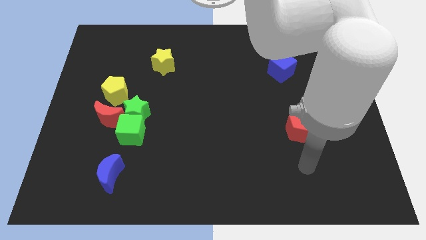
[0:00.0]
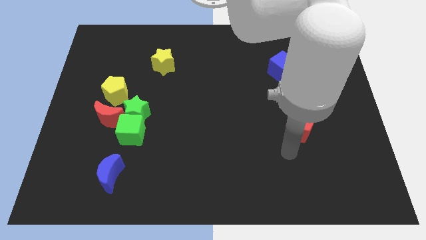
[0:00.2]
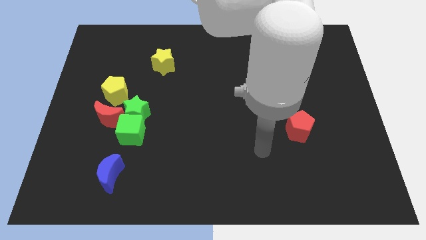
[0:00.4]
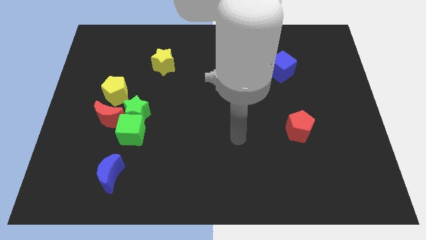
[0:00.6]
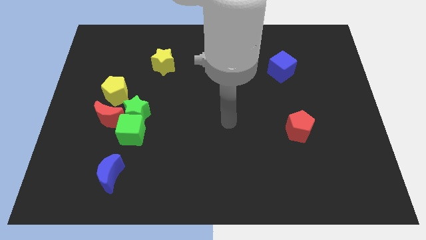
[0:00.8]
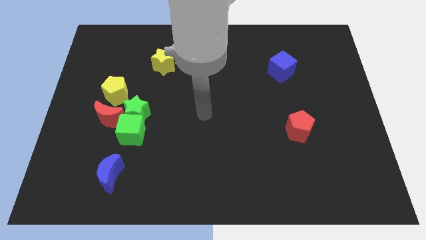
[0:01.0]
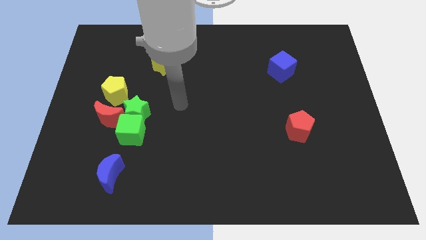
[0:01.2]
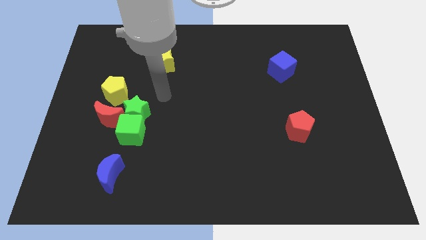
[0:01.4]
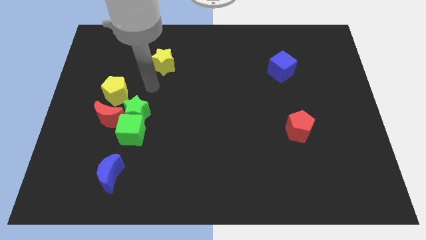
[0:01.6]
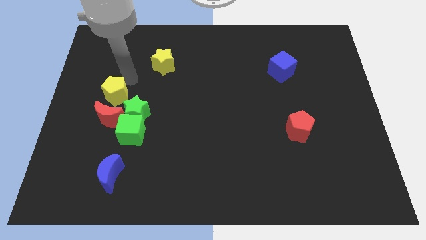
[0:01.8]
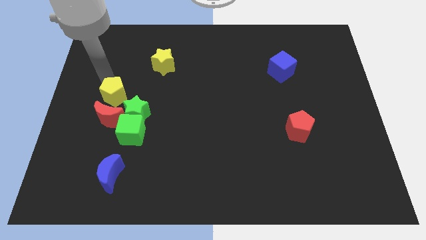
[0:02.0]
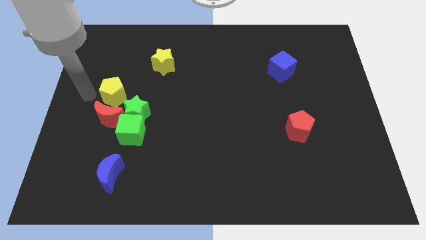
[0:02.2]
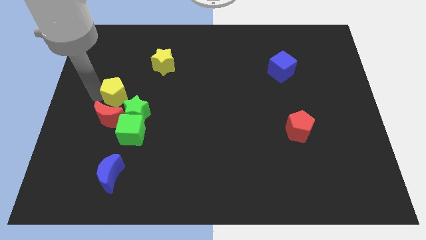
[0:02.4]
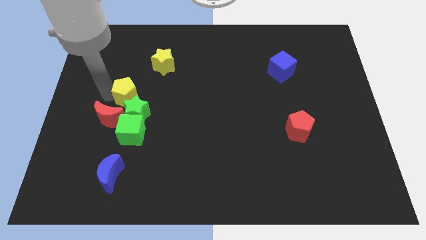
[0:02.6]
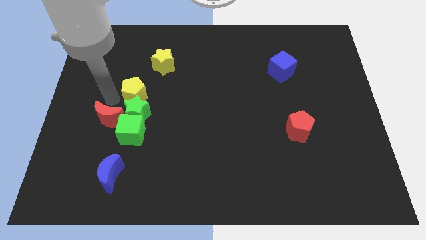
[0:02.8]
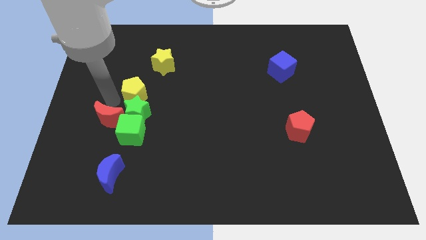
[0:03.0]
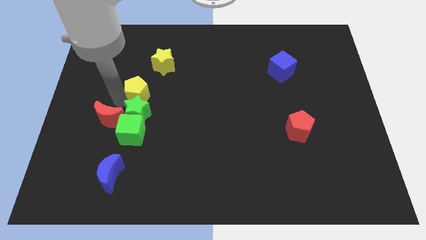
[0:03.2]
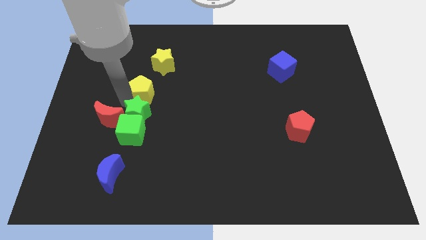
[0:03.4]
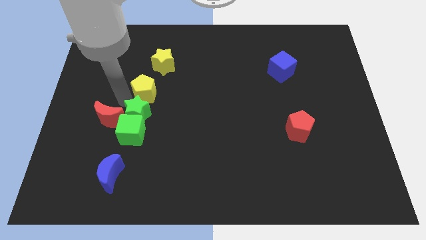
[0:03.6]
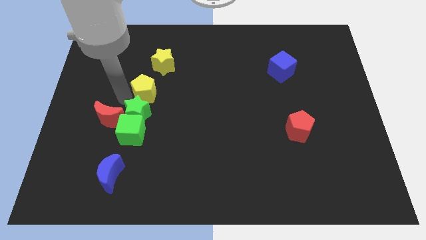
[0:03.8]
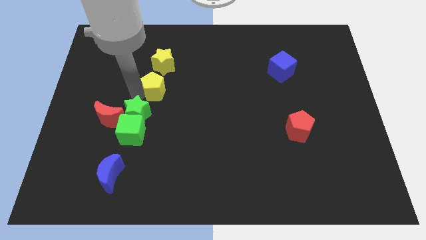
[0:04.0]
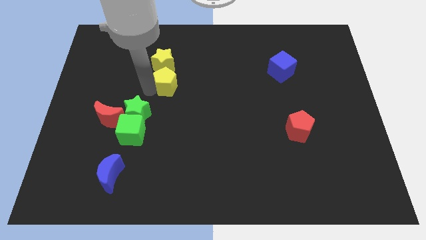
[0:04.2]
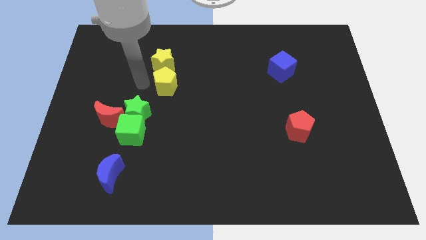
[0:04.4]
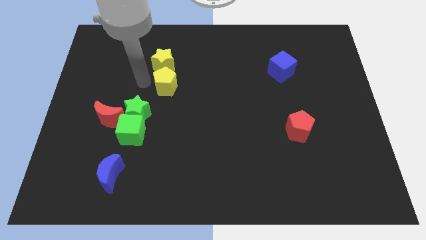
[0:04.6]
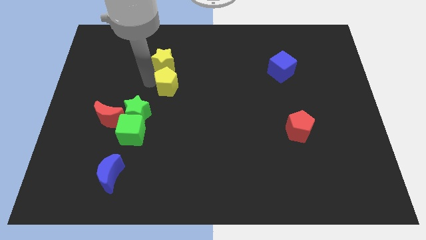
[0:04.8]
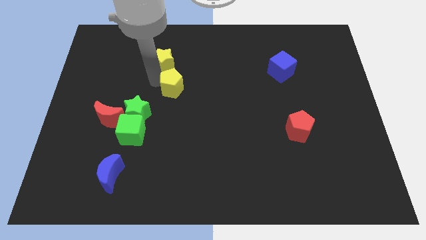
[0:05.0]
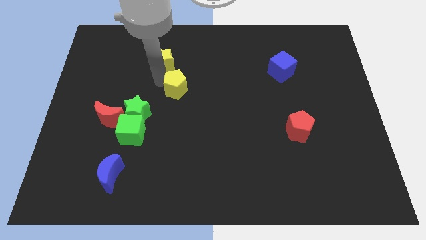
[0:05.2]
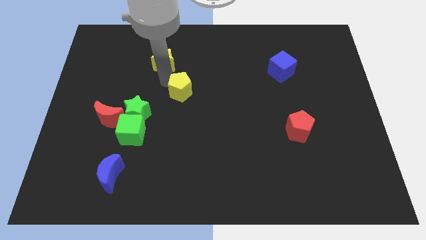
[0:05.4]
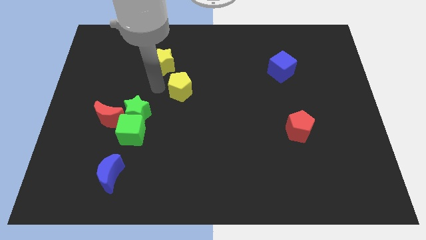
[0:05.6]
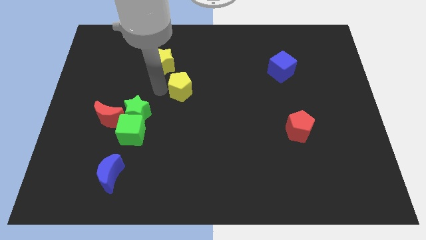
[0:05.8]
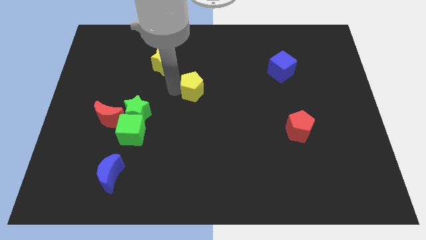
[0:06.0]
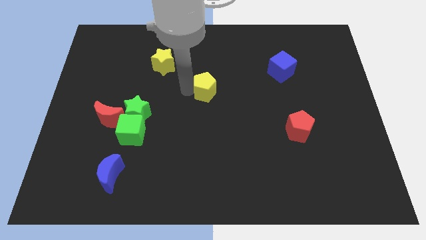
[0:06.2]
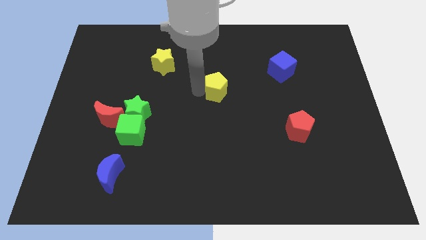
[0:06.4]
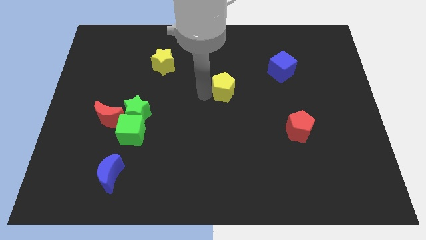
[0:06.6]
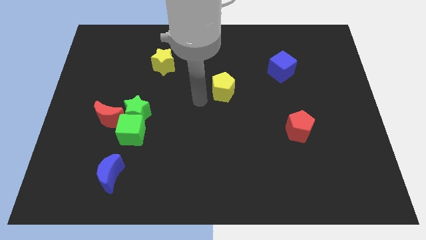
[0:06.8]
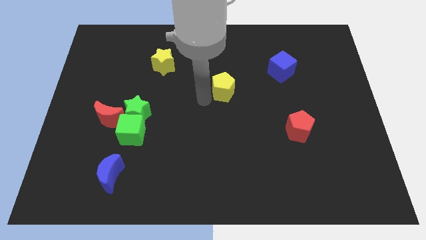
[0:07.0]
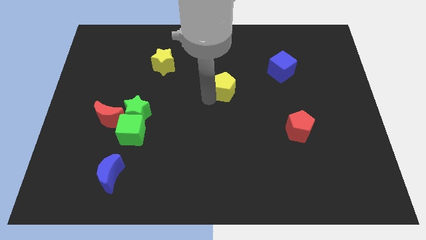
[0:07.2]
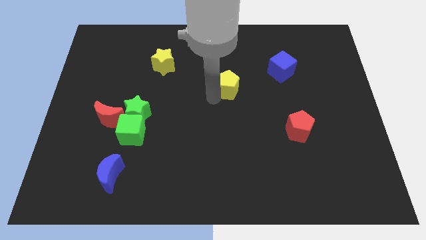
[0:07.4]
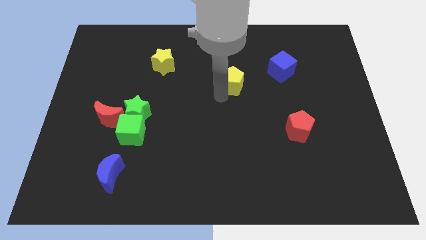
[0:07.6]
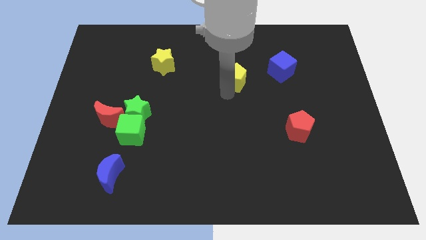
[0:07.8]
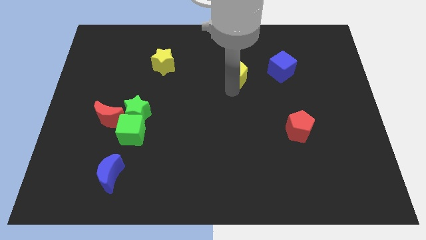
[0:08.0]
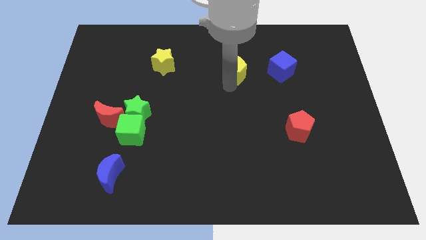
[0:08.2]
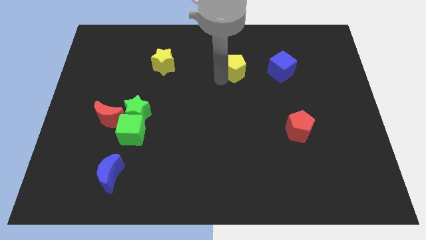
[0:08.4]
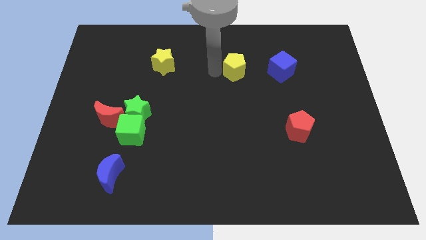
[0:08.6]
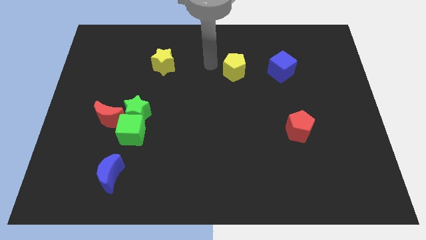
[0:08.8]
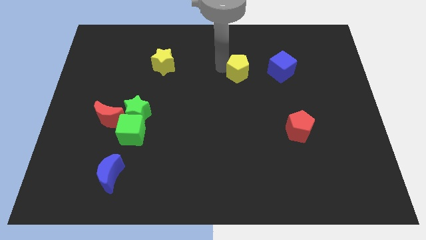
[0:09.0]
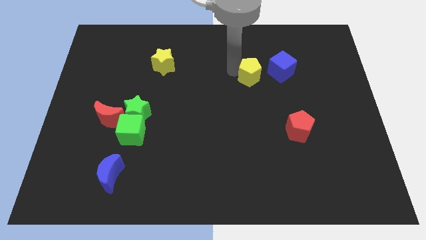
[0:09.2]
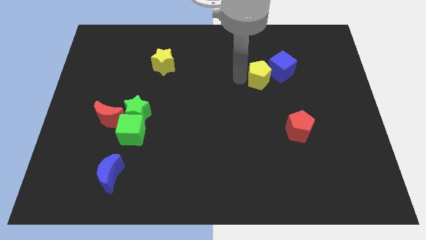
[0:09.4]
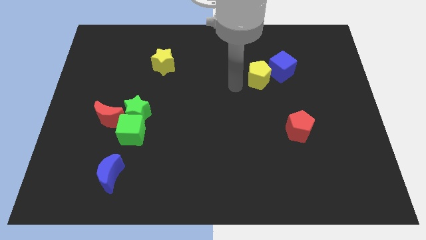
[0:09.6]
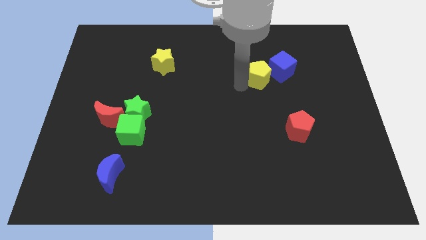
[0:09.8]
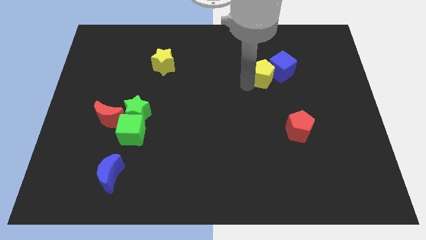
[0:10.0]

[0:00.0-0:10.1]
move the yellow pentagon next to the blue cube

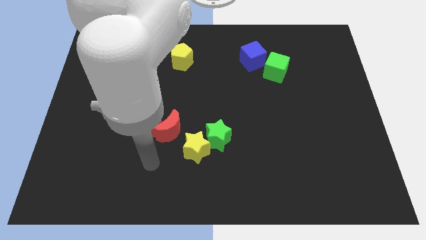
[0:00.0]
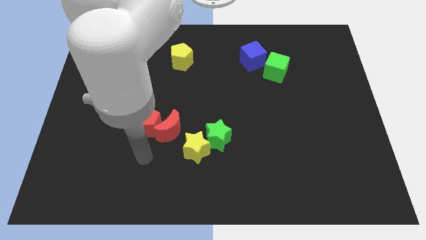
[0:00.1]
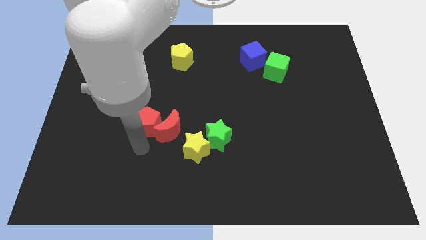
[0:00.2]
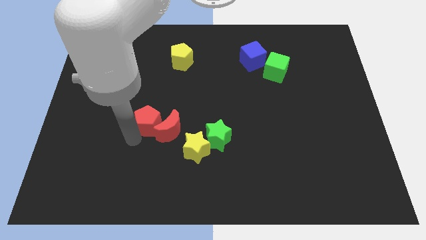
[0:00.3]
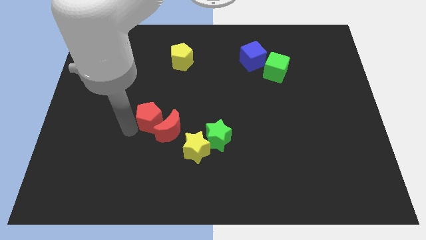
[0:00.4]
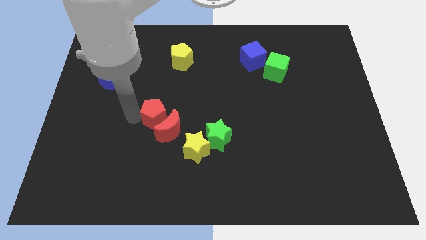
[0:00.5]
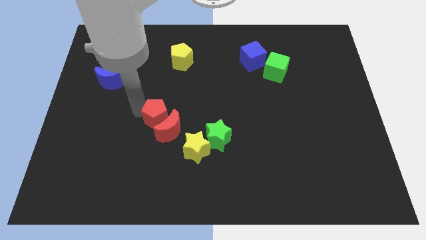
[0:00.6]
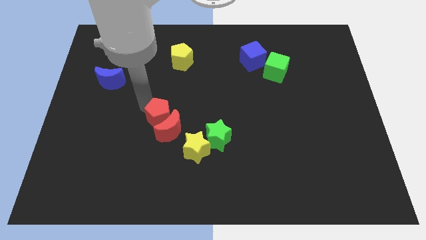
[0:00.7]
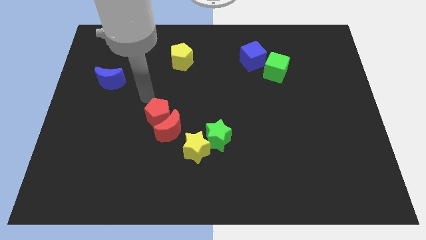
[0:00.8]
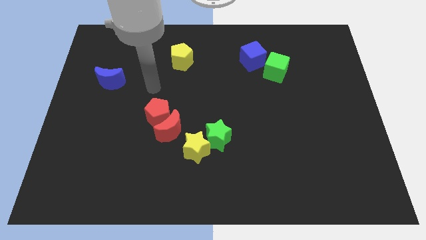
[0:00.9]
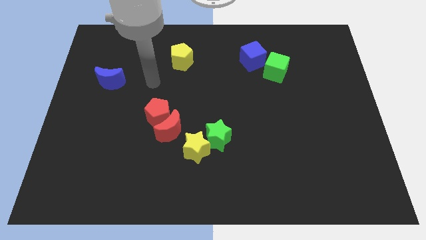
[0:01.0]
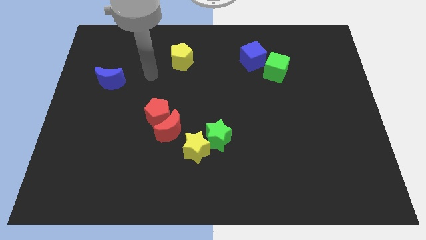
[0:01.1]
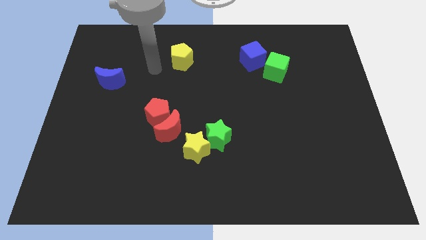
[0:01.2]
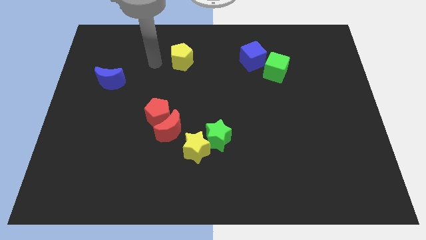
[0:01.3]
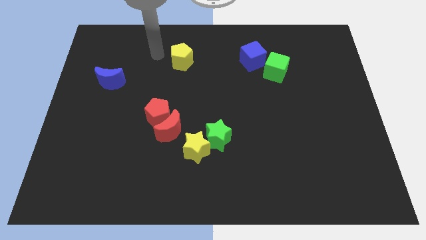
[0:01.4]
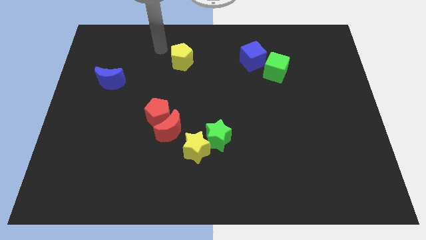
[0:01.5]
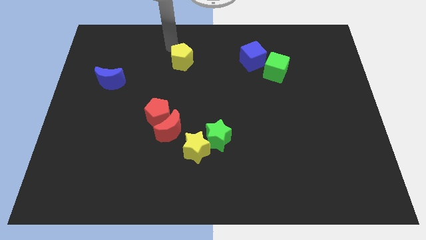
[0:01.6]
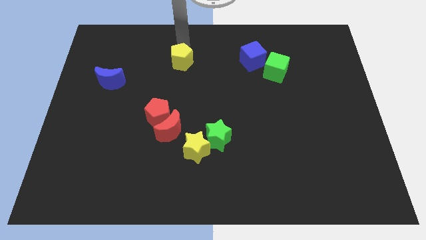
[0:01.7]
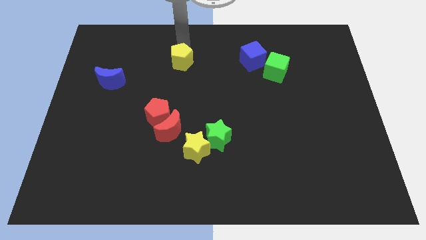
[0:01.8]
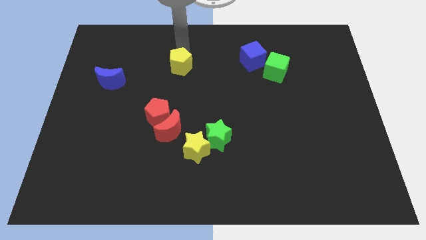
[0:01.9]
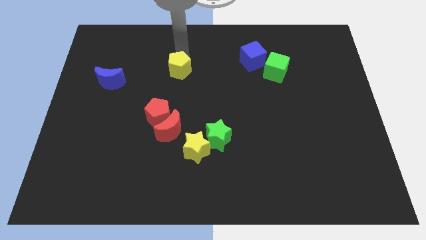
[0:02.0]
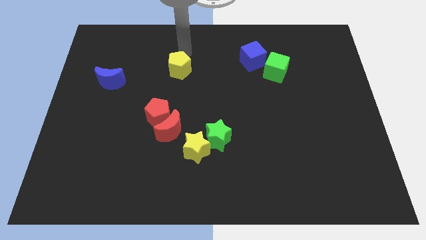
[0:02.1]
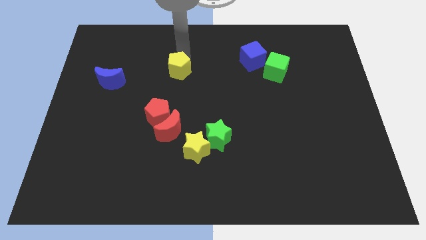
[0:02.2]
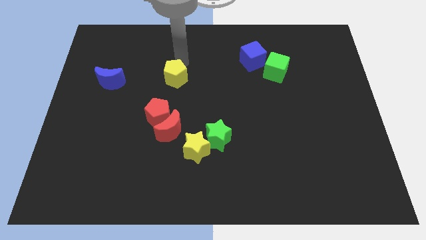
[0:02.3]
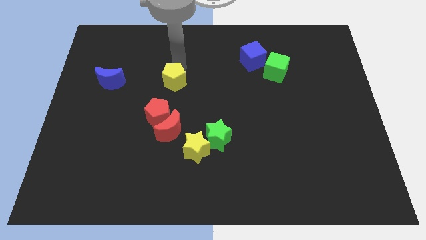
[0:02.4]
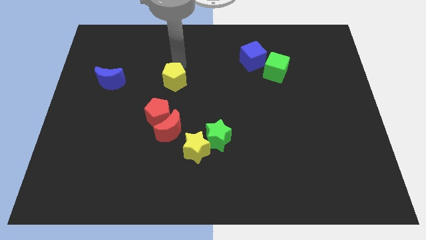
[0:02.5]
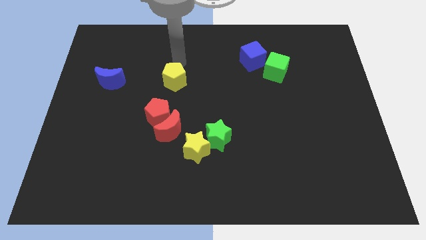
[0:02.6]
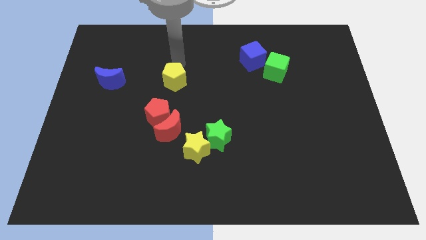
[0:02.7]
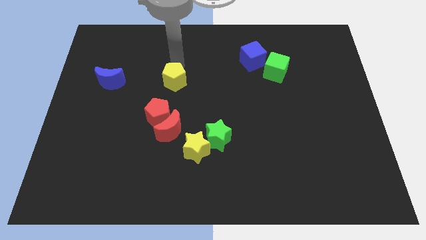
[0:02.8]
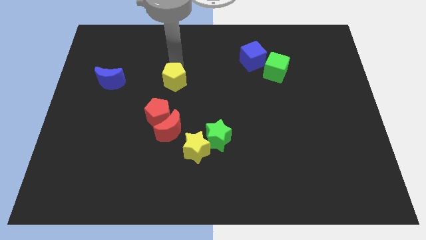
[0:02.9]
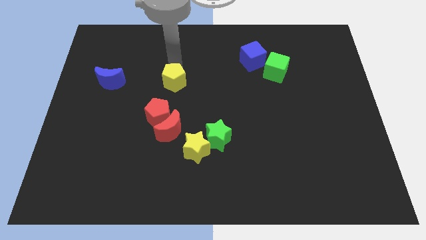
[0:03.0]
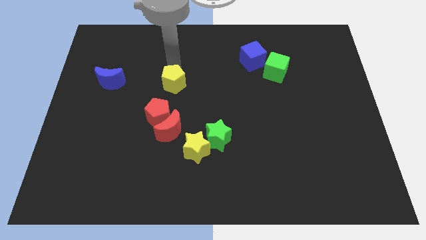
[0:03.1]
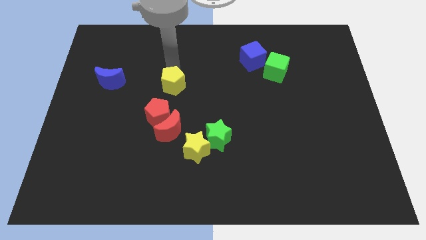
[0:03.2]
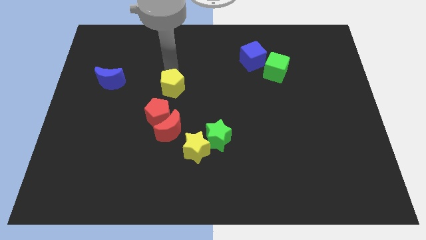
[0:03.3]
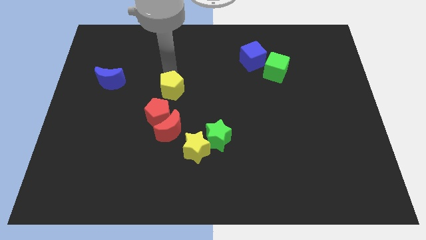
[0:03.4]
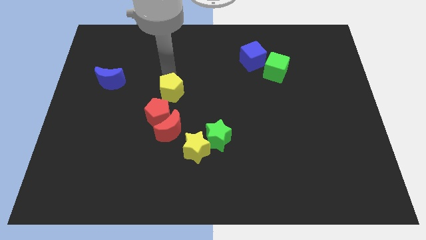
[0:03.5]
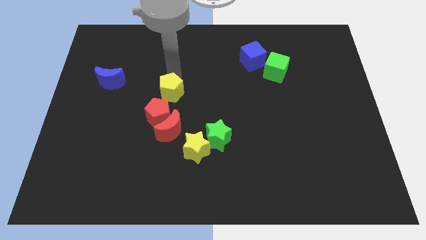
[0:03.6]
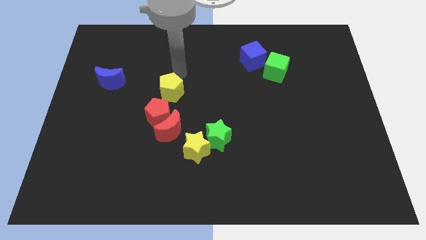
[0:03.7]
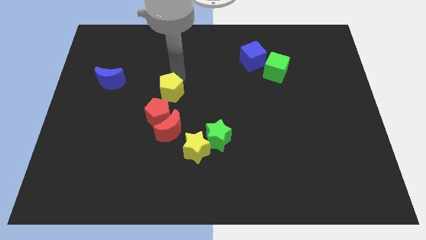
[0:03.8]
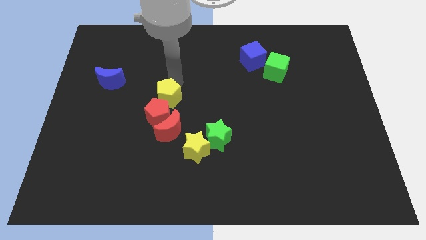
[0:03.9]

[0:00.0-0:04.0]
put the yellow pentagon next to the red pentagon
